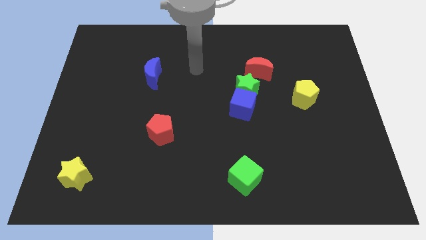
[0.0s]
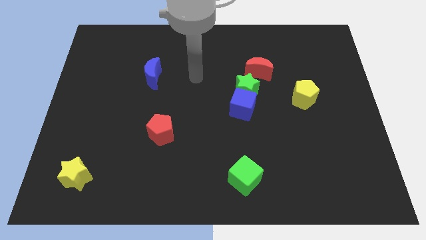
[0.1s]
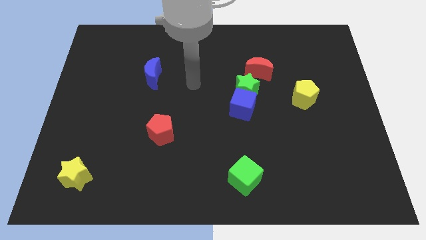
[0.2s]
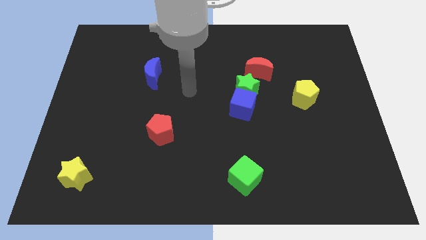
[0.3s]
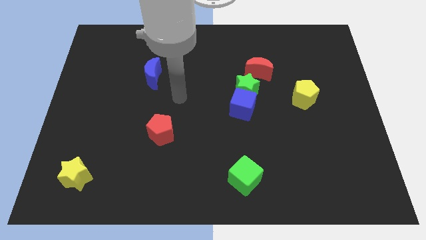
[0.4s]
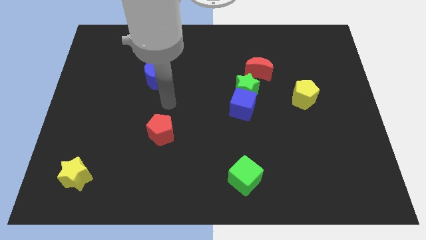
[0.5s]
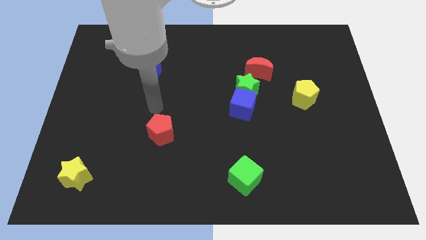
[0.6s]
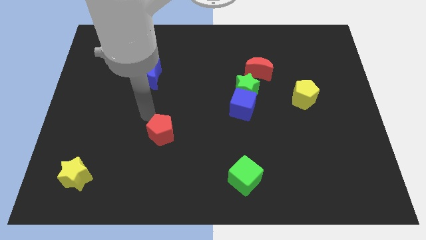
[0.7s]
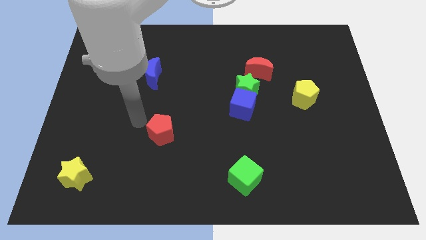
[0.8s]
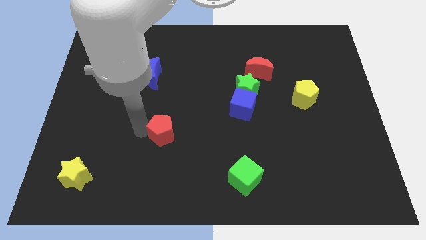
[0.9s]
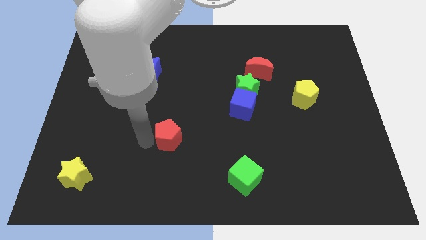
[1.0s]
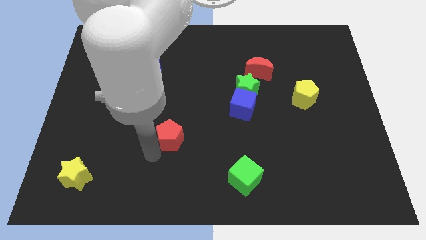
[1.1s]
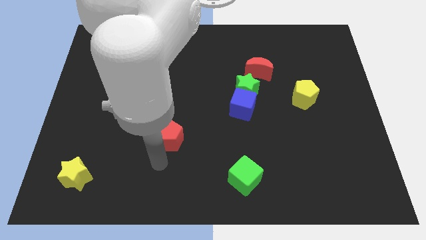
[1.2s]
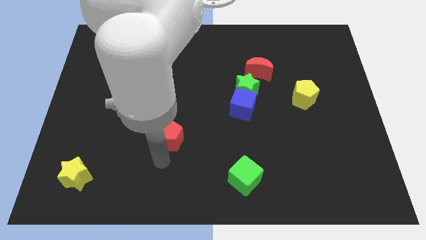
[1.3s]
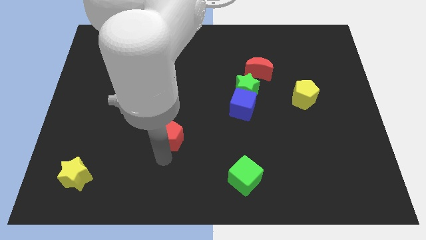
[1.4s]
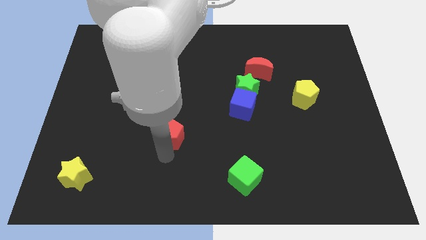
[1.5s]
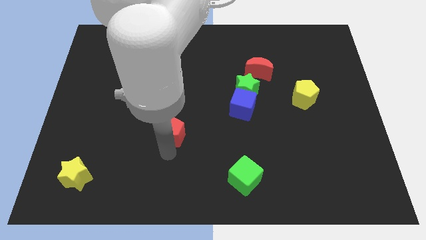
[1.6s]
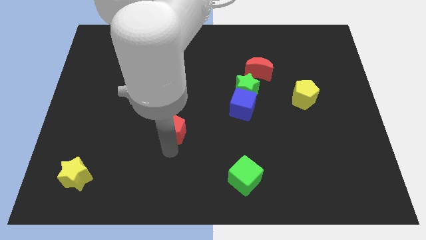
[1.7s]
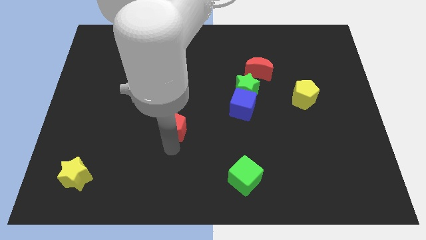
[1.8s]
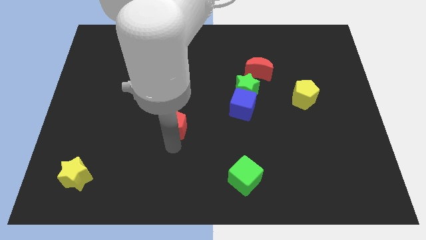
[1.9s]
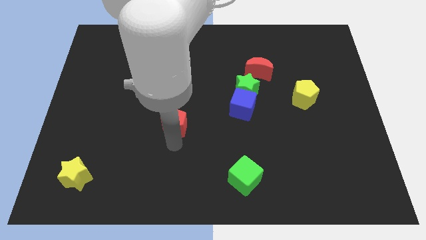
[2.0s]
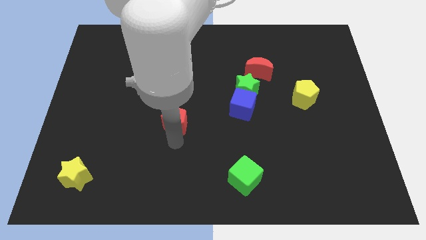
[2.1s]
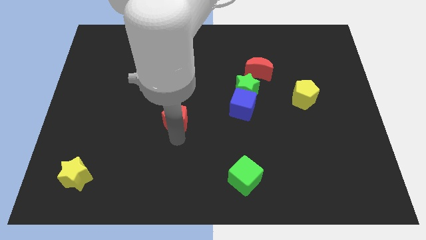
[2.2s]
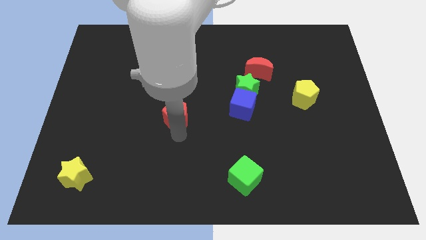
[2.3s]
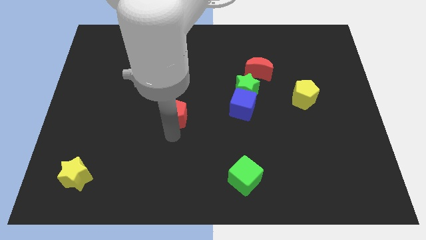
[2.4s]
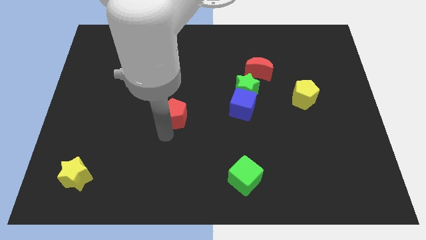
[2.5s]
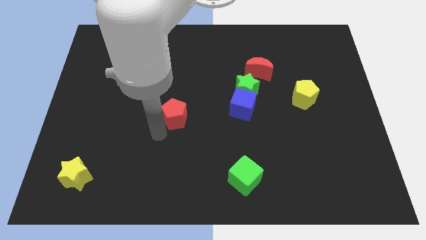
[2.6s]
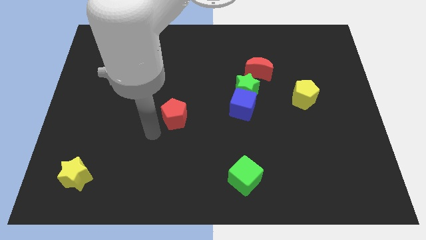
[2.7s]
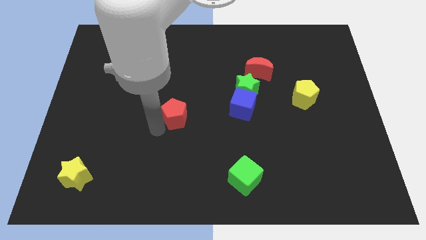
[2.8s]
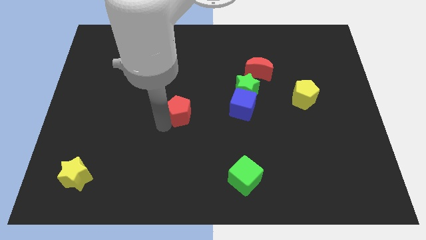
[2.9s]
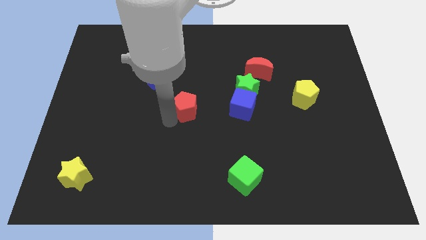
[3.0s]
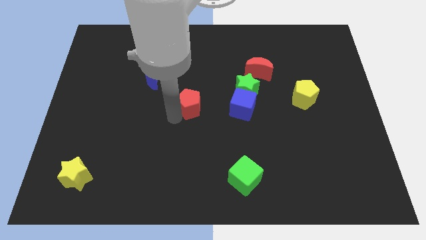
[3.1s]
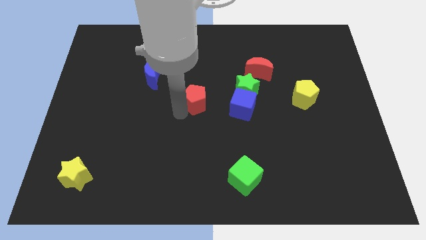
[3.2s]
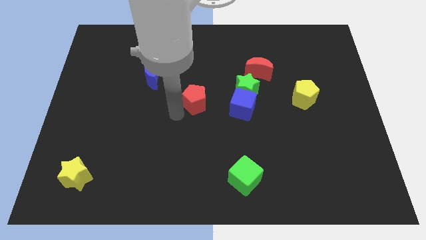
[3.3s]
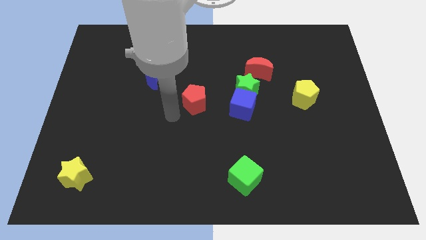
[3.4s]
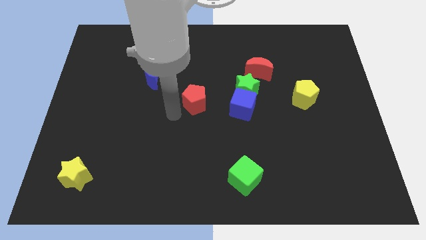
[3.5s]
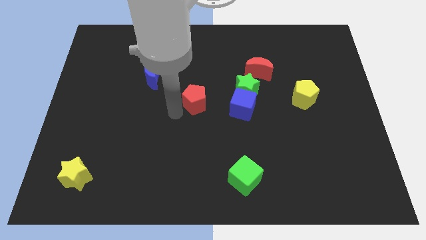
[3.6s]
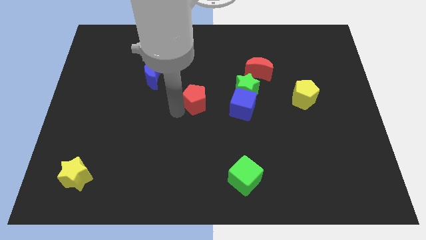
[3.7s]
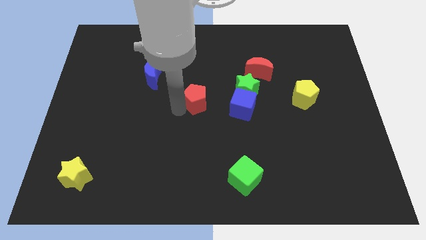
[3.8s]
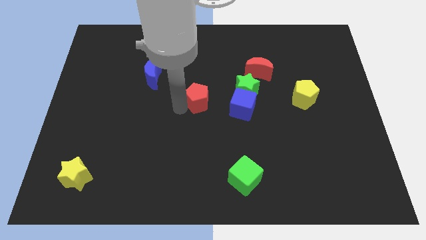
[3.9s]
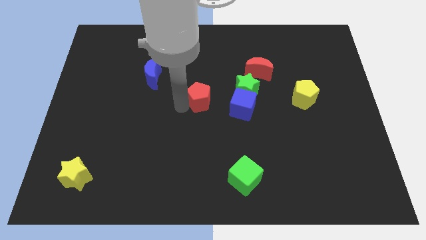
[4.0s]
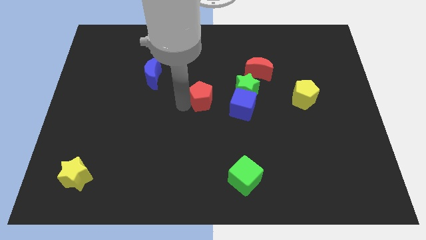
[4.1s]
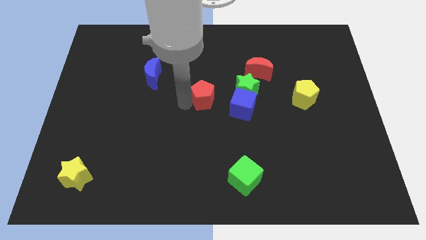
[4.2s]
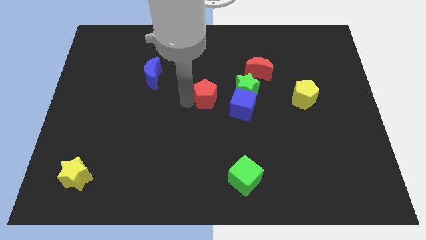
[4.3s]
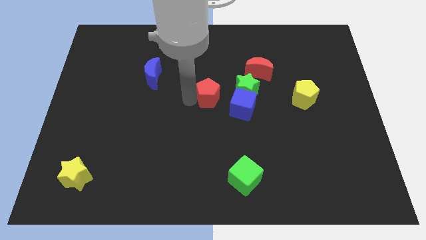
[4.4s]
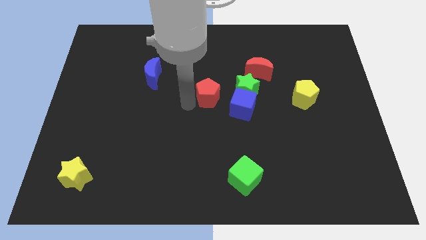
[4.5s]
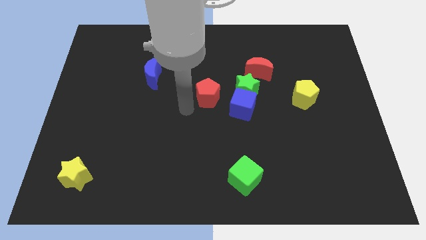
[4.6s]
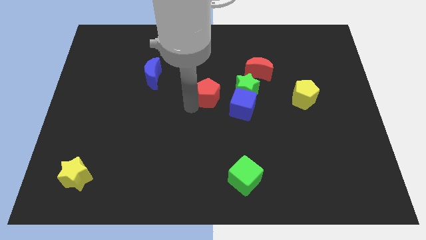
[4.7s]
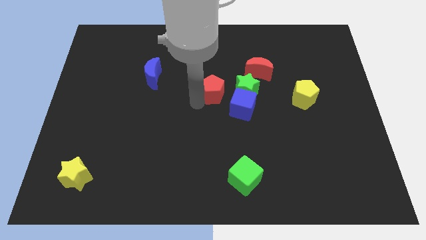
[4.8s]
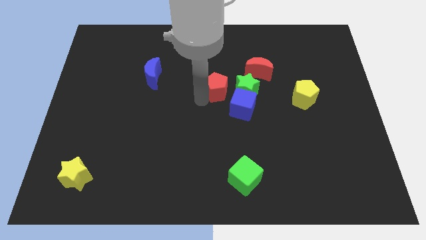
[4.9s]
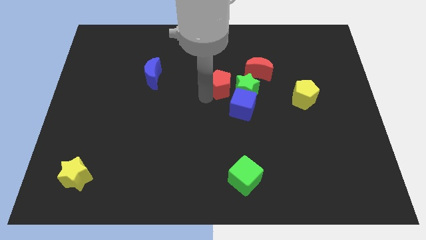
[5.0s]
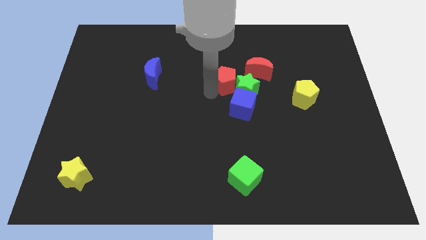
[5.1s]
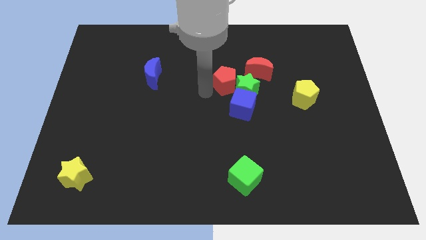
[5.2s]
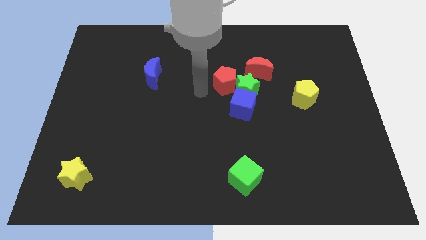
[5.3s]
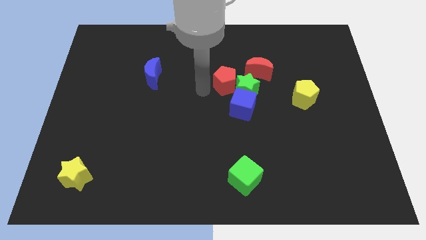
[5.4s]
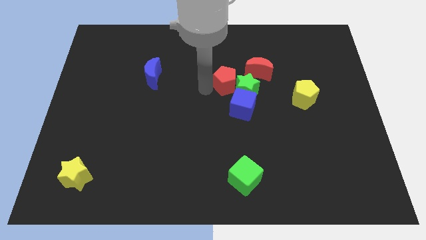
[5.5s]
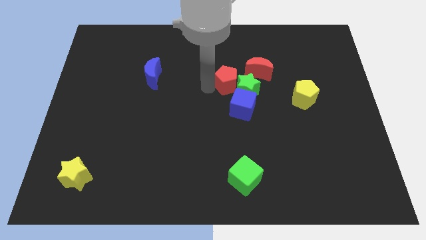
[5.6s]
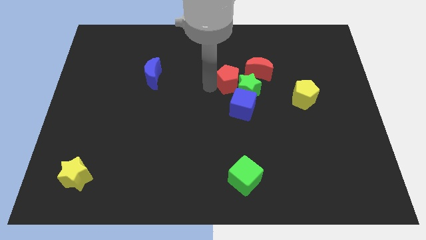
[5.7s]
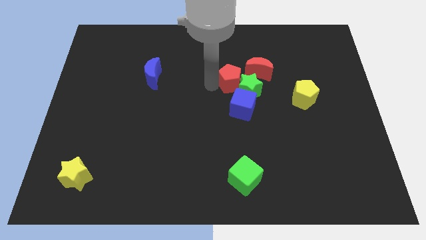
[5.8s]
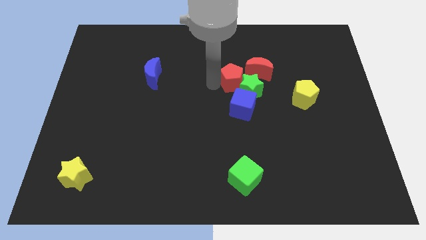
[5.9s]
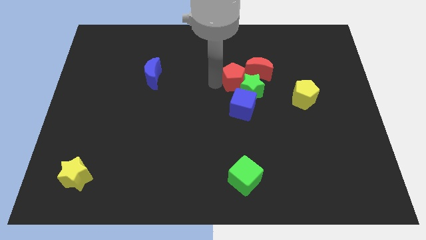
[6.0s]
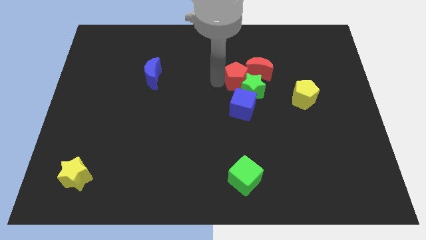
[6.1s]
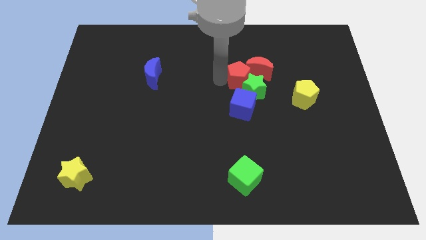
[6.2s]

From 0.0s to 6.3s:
push the red pentagon next to the red moon

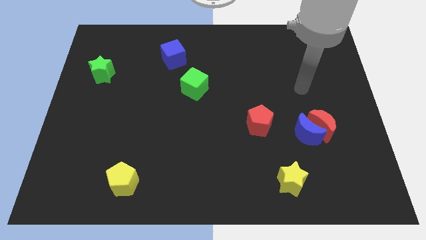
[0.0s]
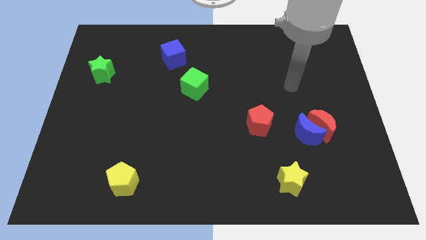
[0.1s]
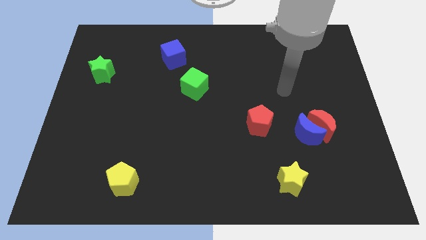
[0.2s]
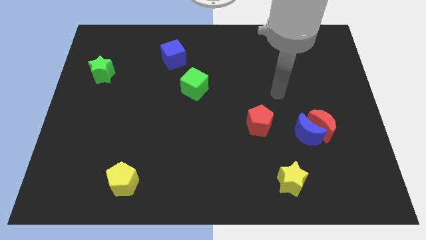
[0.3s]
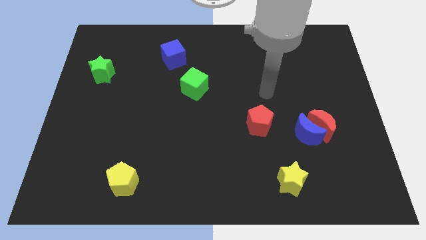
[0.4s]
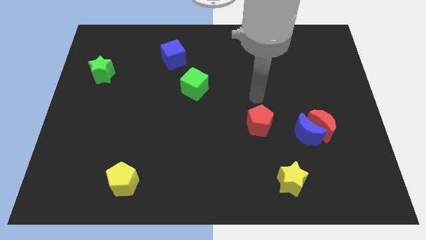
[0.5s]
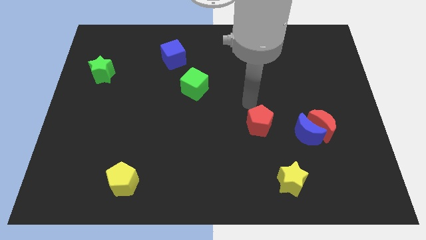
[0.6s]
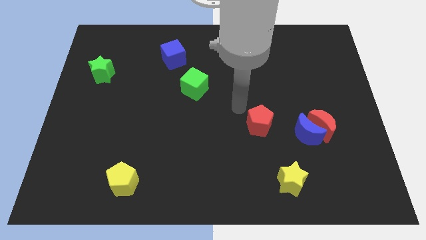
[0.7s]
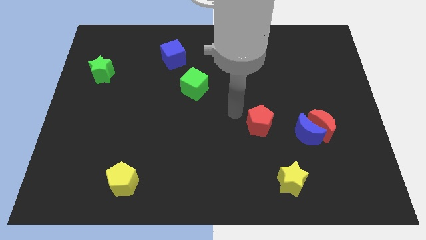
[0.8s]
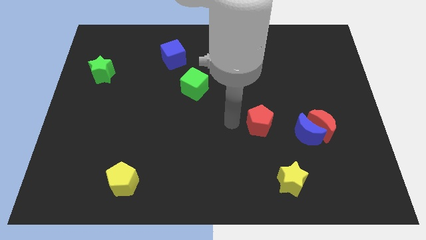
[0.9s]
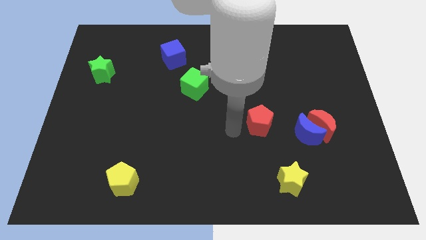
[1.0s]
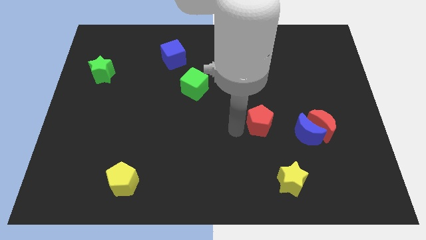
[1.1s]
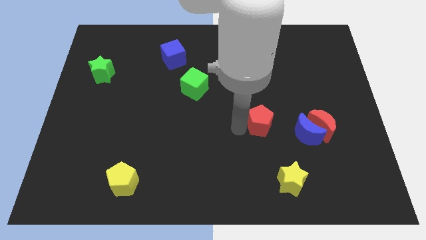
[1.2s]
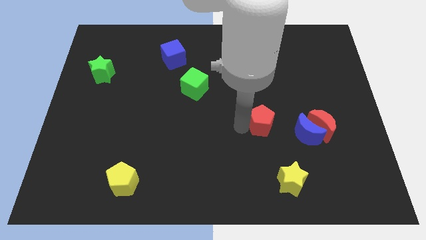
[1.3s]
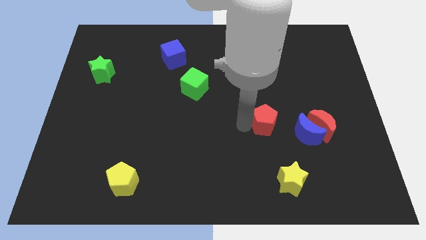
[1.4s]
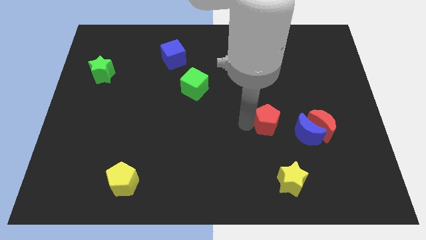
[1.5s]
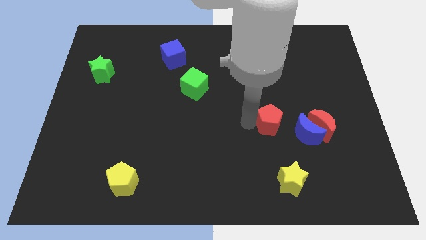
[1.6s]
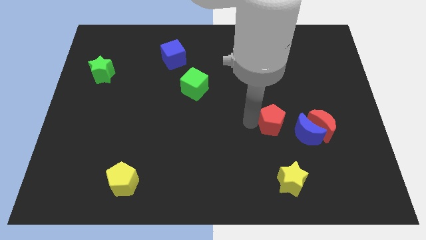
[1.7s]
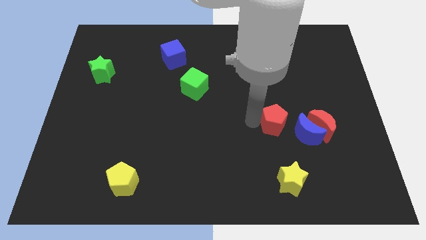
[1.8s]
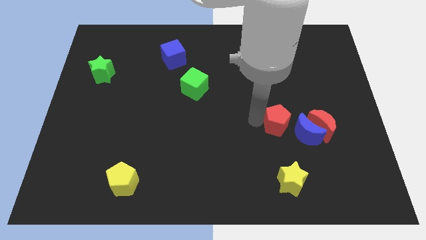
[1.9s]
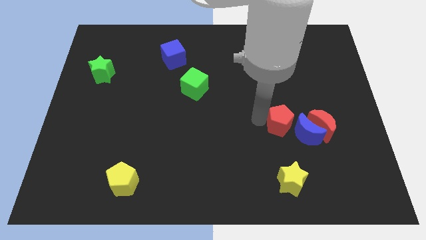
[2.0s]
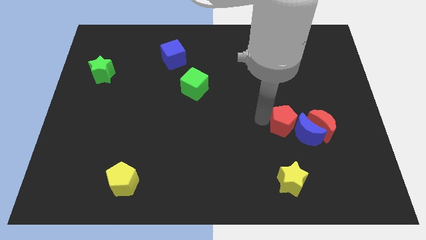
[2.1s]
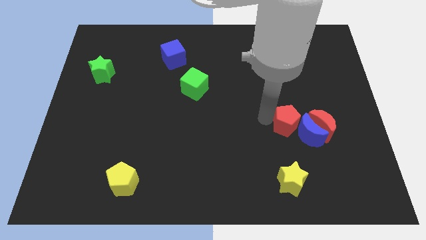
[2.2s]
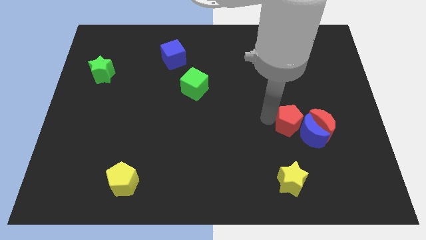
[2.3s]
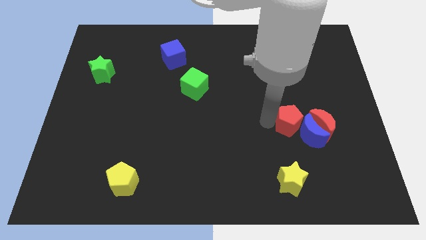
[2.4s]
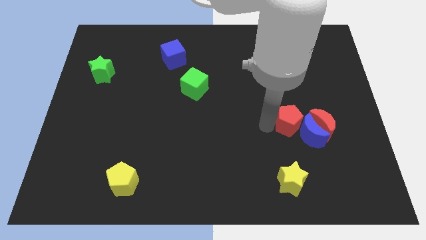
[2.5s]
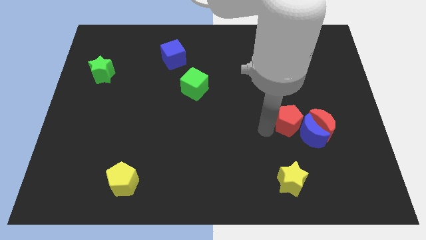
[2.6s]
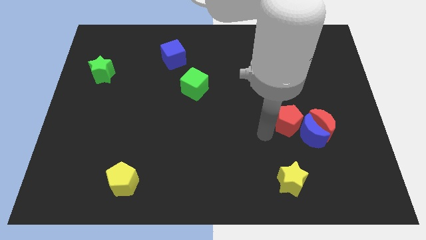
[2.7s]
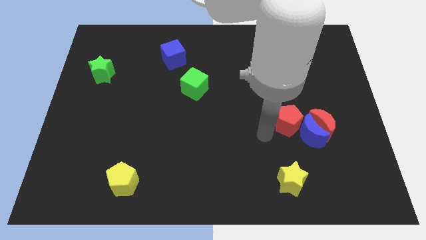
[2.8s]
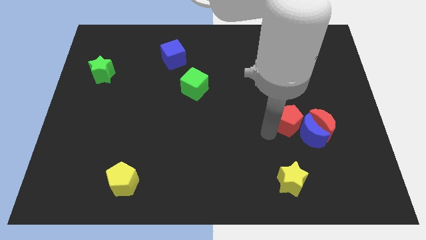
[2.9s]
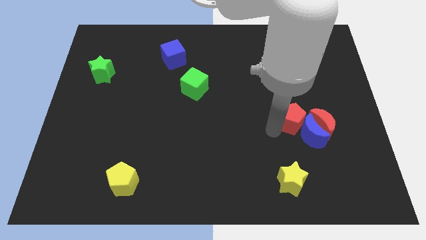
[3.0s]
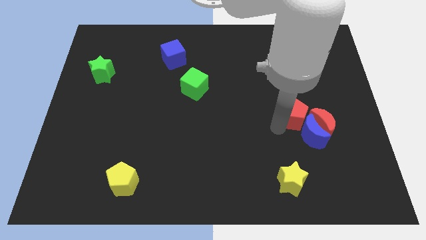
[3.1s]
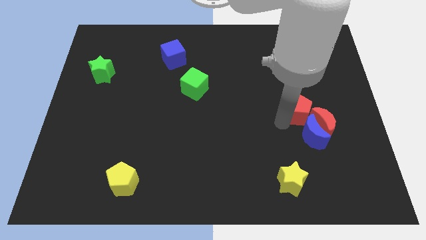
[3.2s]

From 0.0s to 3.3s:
move the red pentagon next to the red moon
